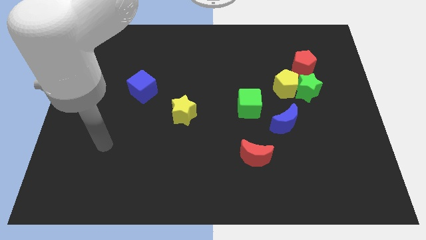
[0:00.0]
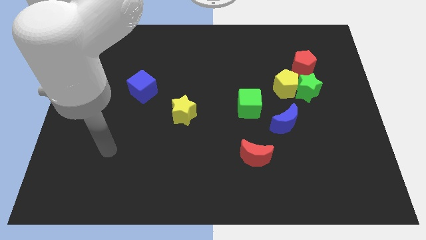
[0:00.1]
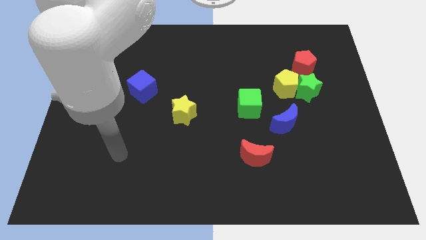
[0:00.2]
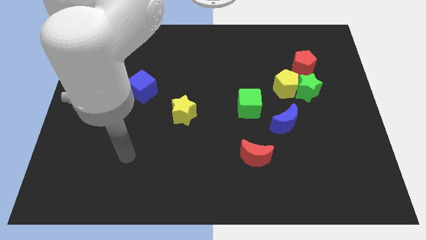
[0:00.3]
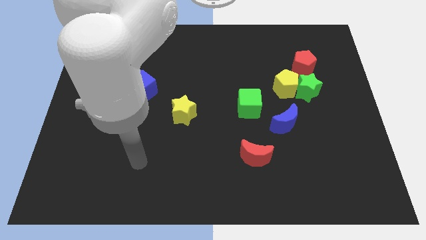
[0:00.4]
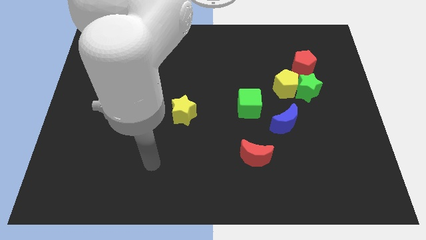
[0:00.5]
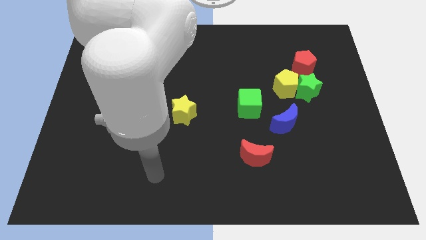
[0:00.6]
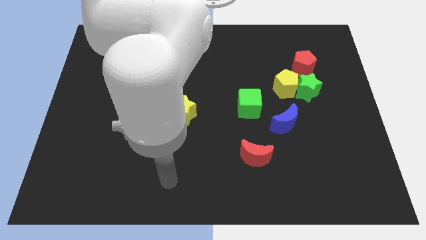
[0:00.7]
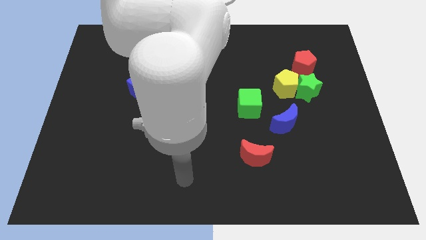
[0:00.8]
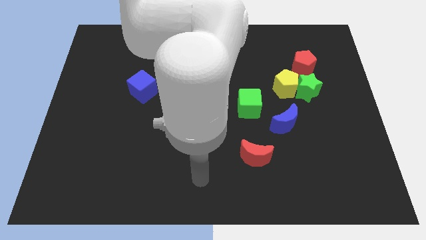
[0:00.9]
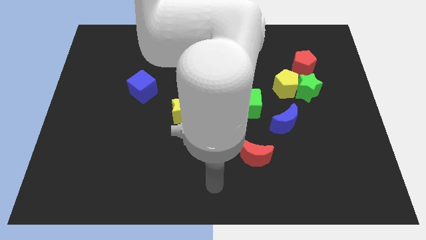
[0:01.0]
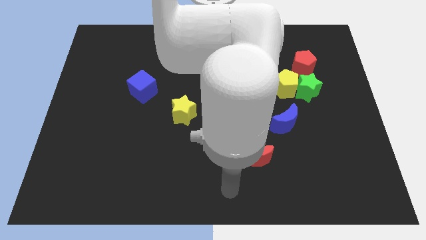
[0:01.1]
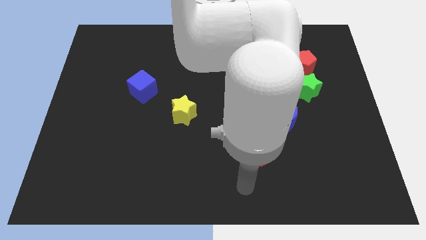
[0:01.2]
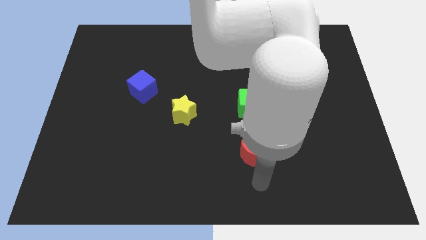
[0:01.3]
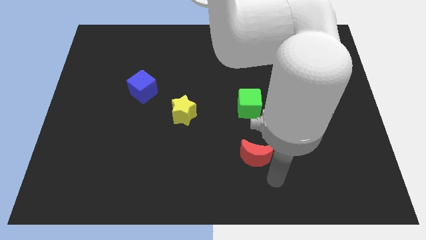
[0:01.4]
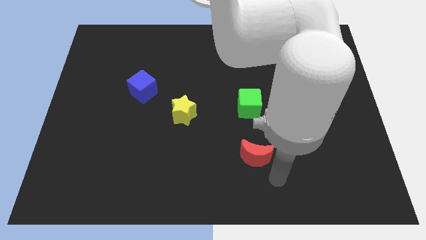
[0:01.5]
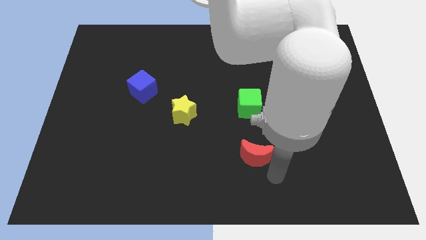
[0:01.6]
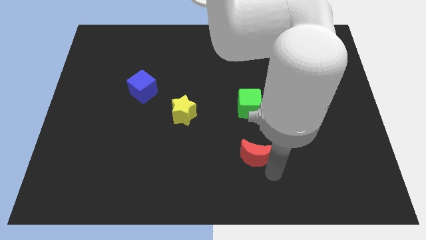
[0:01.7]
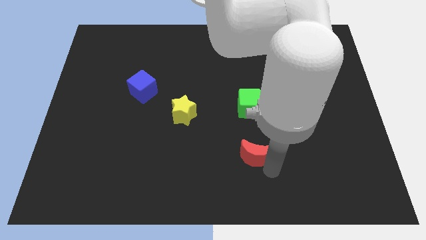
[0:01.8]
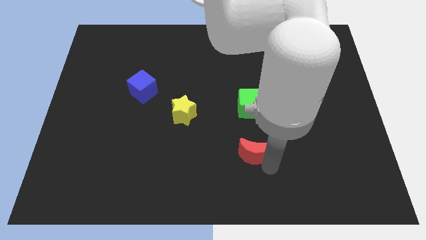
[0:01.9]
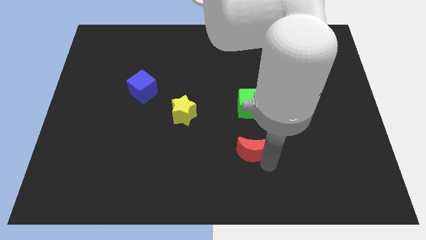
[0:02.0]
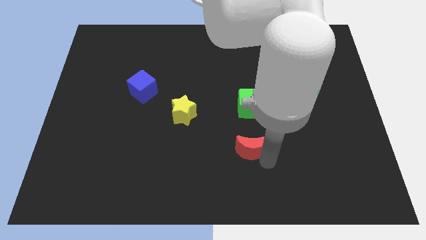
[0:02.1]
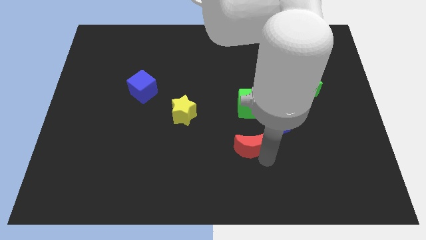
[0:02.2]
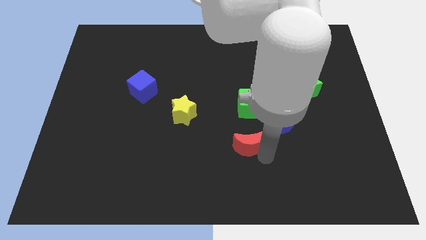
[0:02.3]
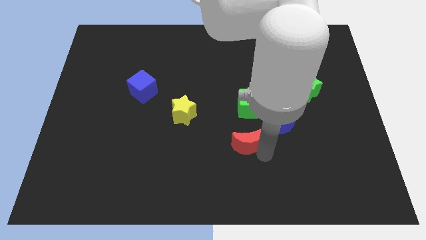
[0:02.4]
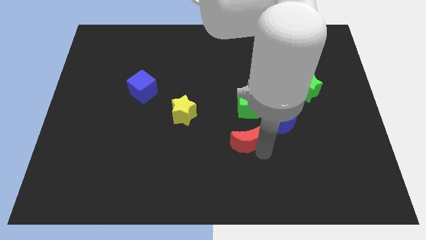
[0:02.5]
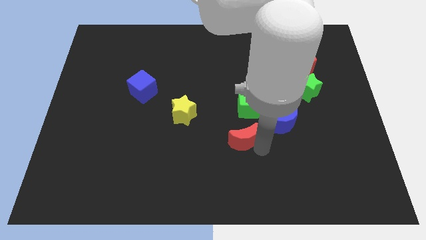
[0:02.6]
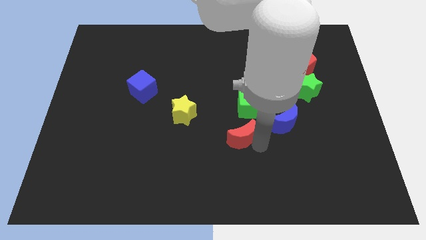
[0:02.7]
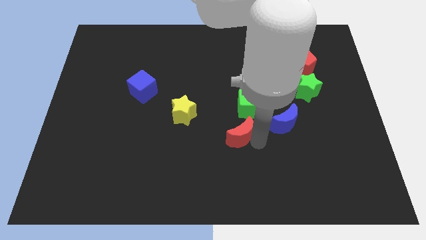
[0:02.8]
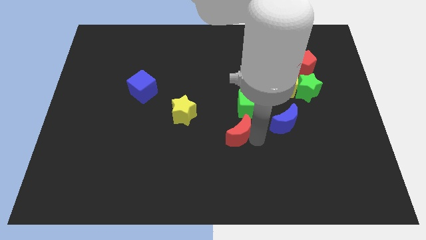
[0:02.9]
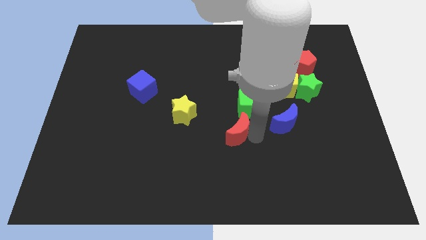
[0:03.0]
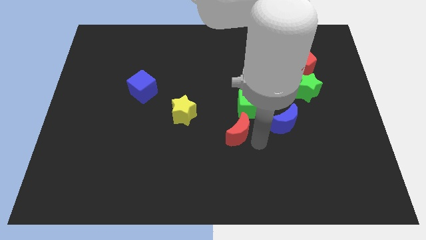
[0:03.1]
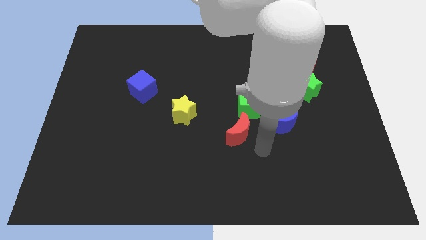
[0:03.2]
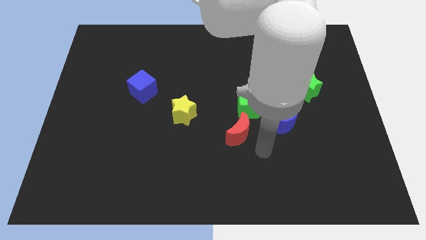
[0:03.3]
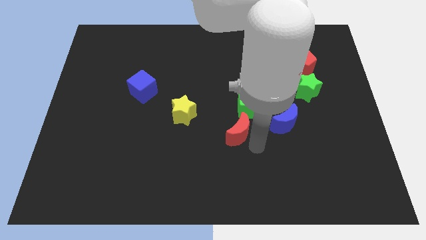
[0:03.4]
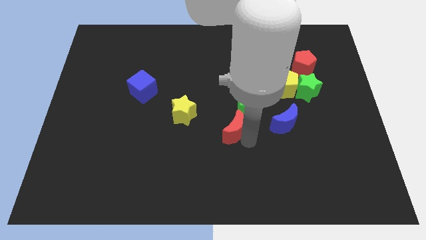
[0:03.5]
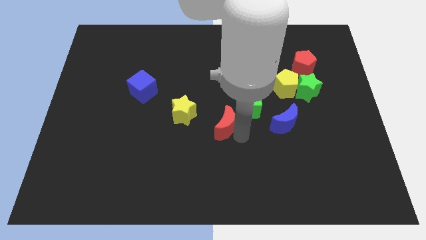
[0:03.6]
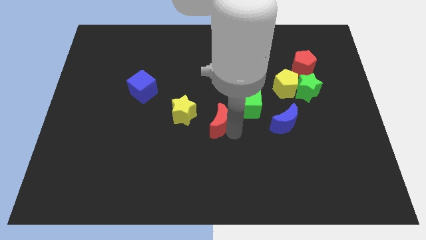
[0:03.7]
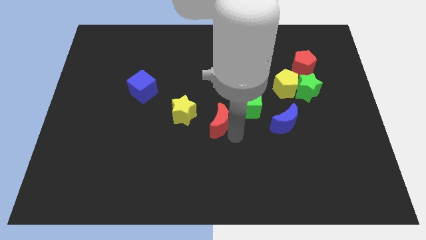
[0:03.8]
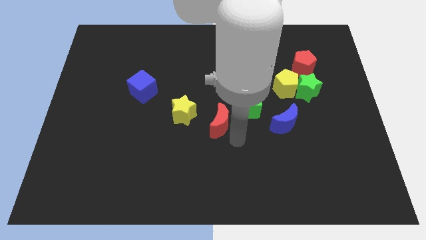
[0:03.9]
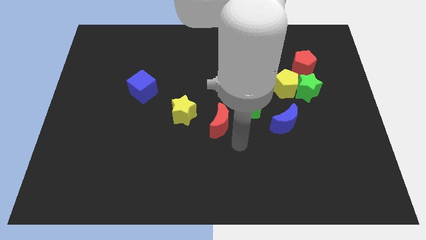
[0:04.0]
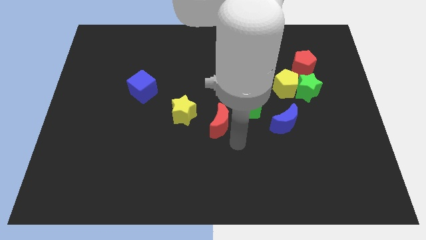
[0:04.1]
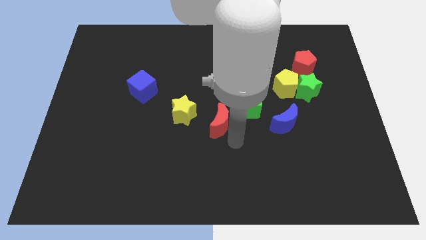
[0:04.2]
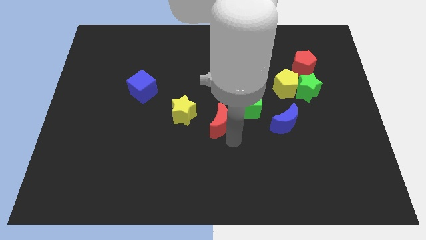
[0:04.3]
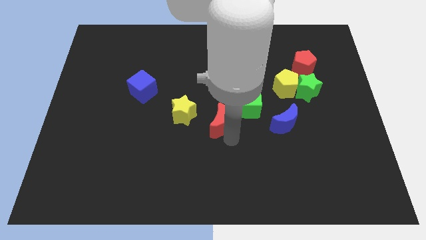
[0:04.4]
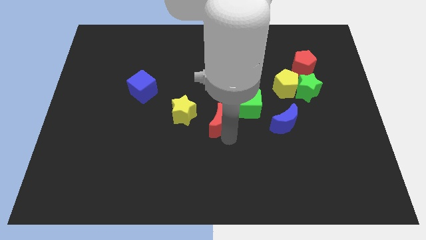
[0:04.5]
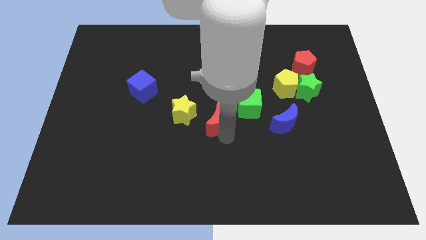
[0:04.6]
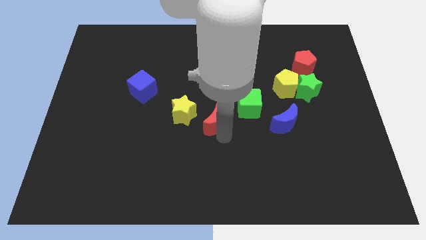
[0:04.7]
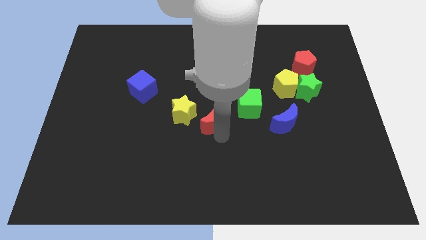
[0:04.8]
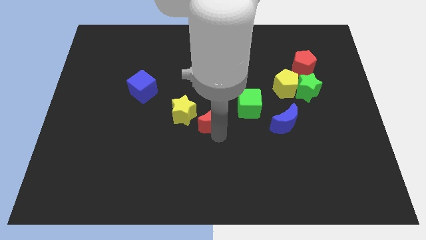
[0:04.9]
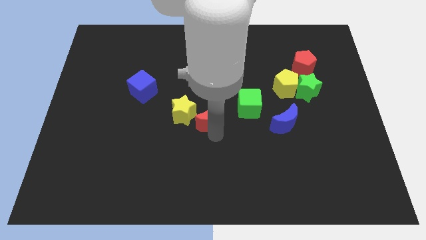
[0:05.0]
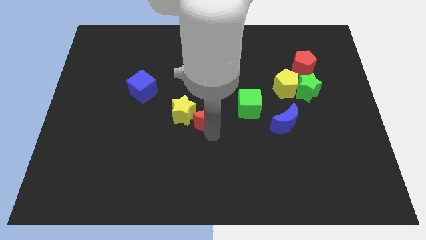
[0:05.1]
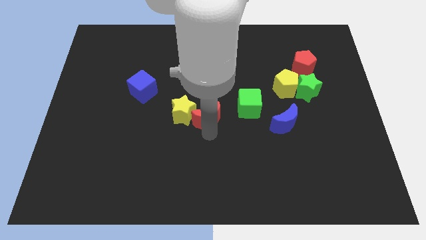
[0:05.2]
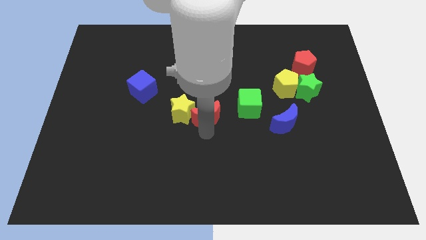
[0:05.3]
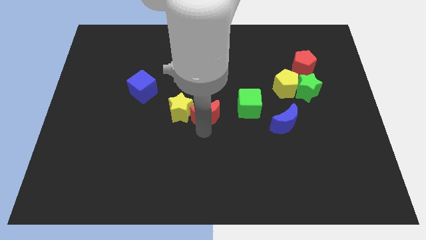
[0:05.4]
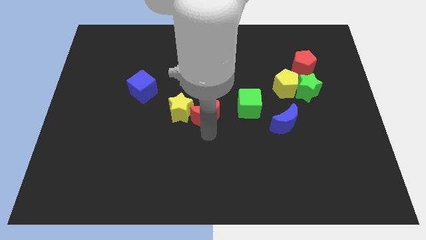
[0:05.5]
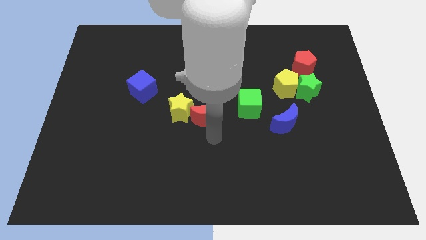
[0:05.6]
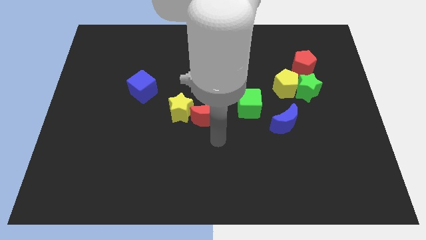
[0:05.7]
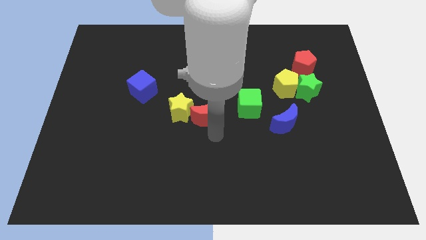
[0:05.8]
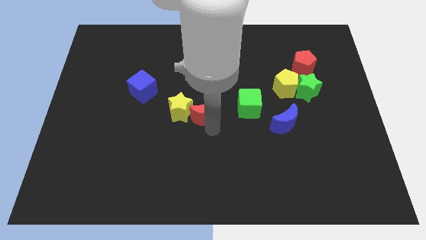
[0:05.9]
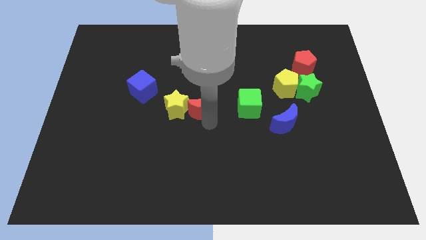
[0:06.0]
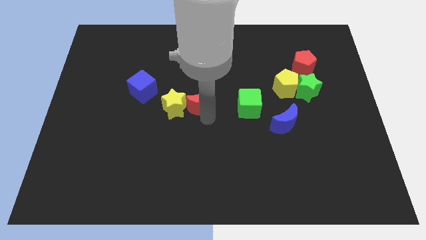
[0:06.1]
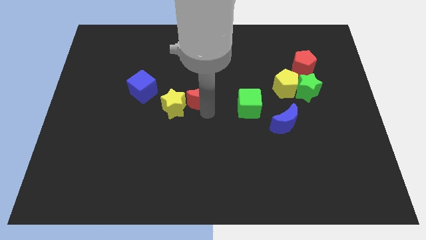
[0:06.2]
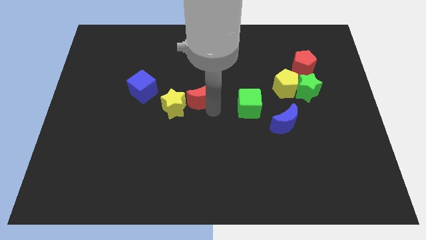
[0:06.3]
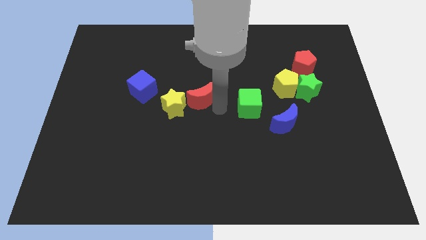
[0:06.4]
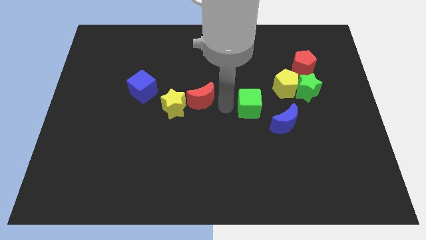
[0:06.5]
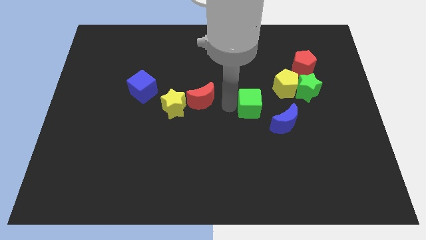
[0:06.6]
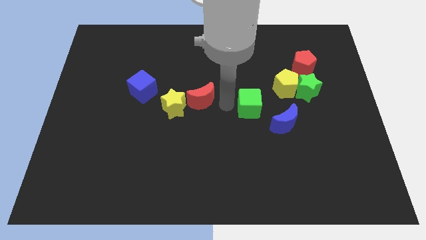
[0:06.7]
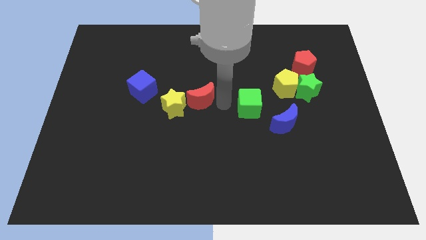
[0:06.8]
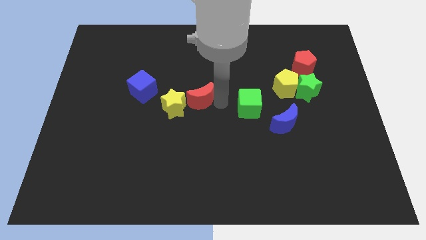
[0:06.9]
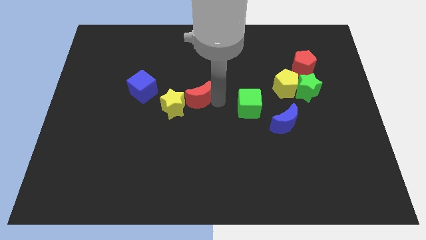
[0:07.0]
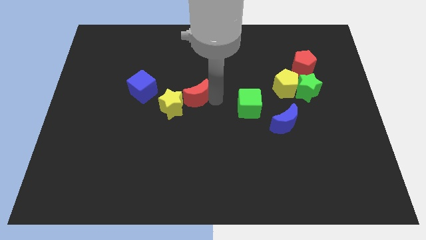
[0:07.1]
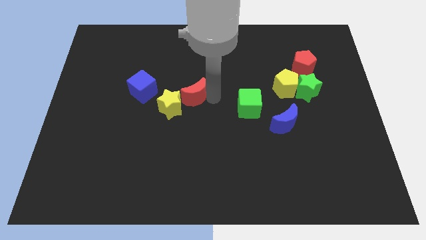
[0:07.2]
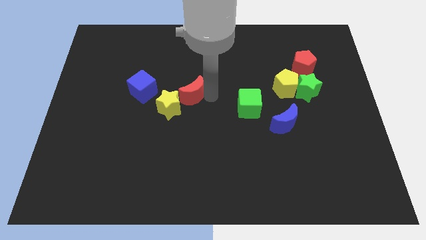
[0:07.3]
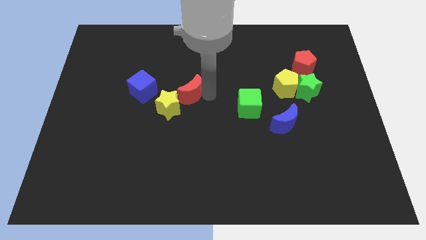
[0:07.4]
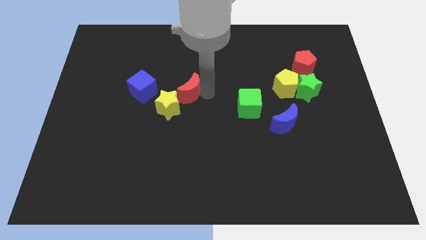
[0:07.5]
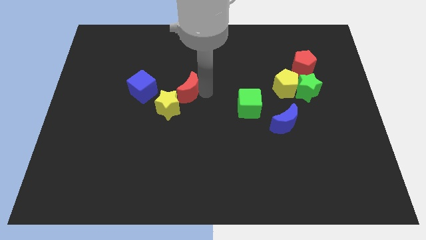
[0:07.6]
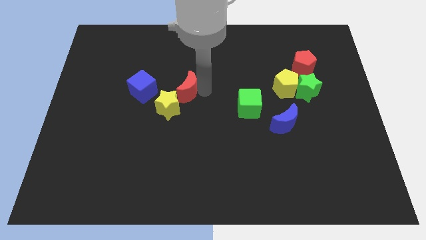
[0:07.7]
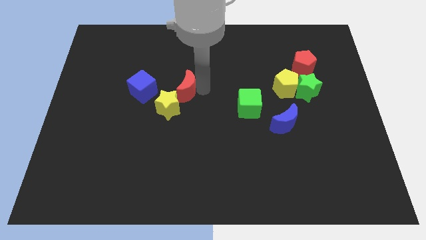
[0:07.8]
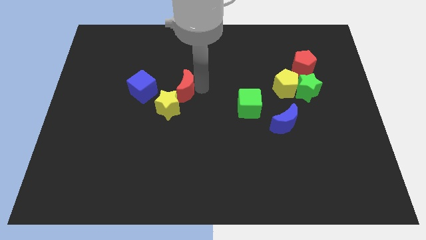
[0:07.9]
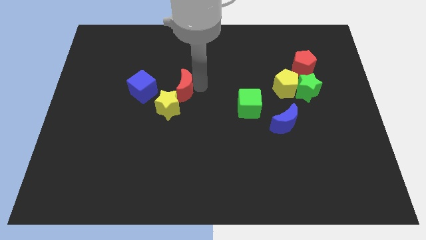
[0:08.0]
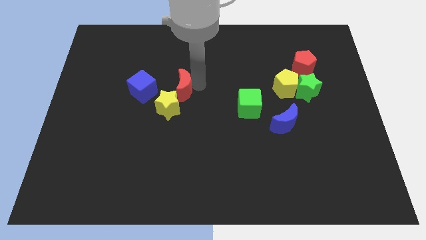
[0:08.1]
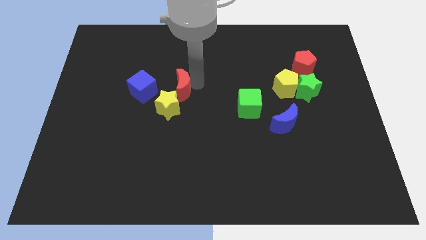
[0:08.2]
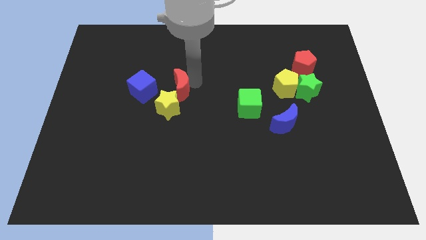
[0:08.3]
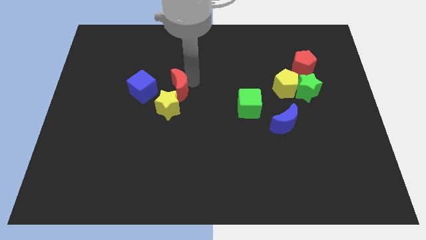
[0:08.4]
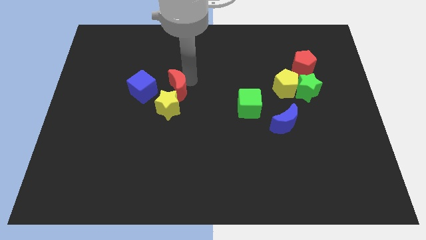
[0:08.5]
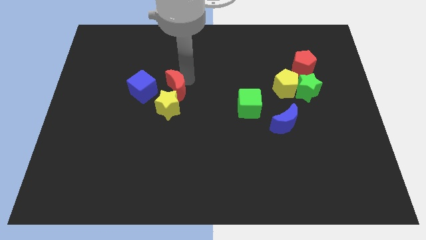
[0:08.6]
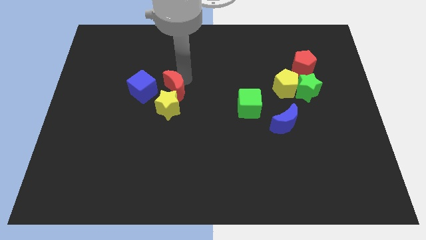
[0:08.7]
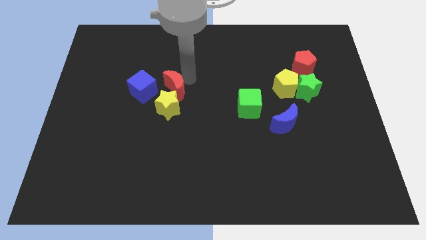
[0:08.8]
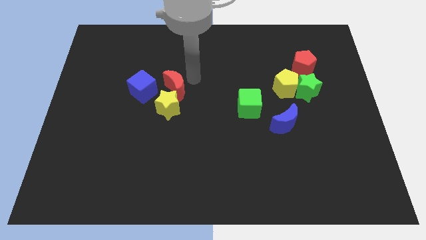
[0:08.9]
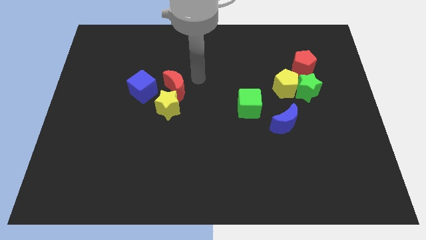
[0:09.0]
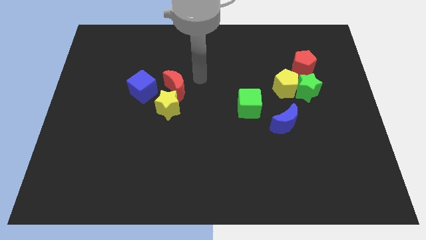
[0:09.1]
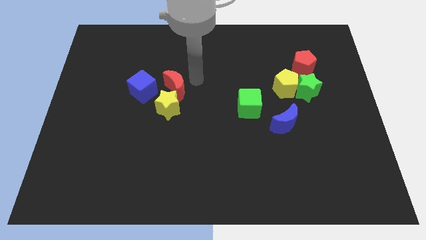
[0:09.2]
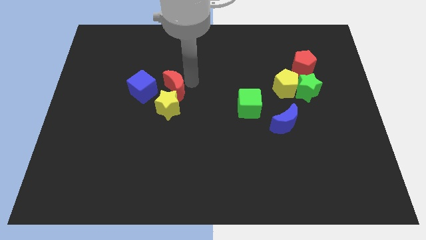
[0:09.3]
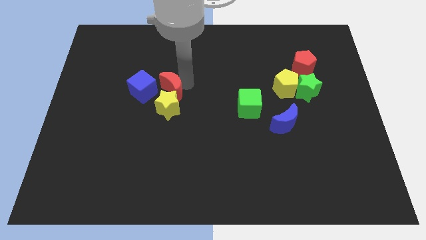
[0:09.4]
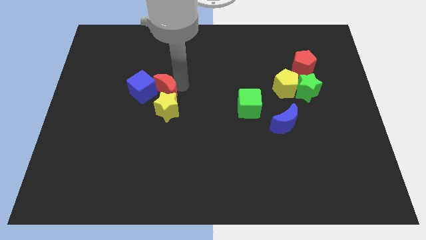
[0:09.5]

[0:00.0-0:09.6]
push the red moon towards the blue cube
